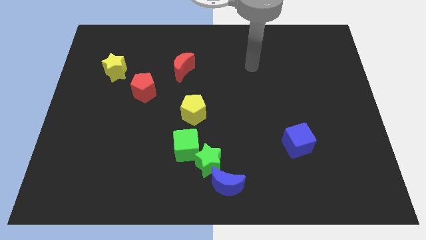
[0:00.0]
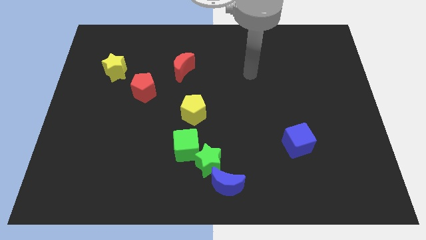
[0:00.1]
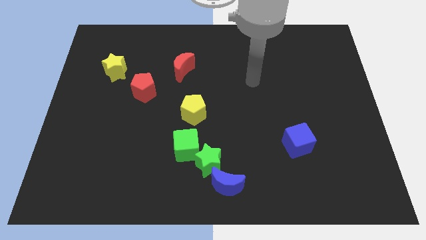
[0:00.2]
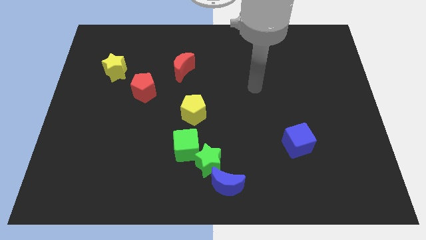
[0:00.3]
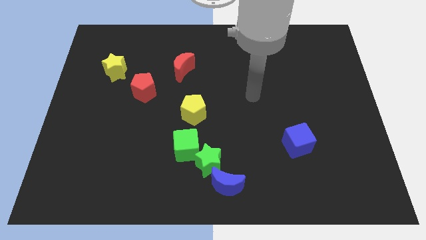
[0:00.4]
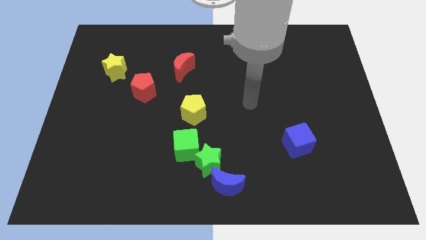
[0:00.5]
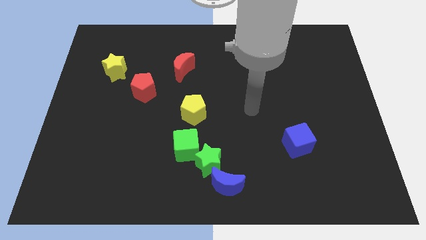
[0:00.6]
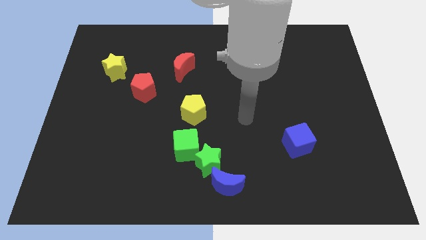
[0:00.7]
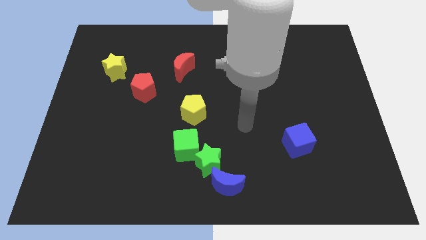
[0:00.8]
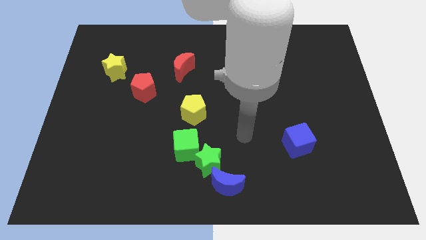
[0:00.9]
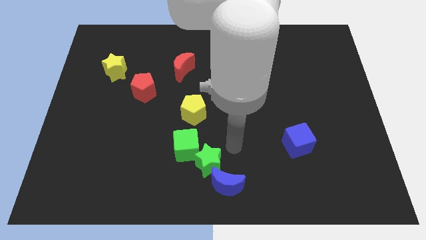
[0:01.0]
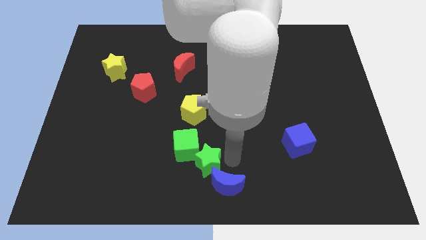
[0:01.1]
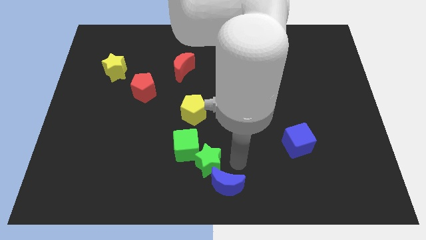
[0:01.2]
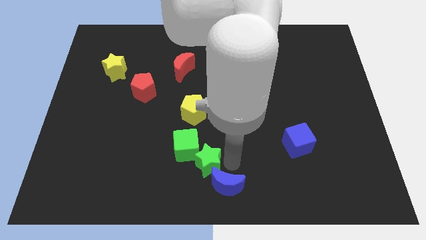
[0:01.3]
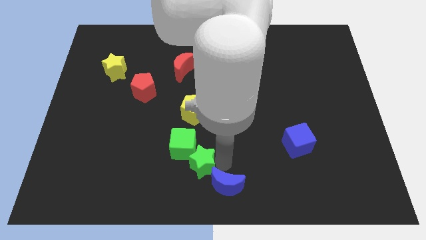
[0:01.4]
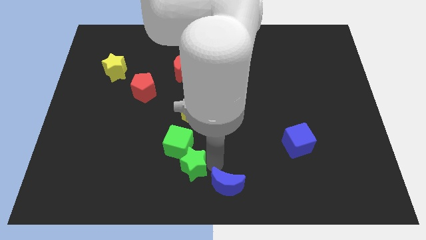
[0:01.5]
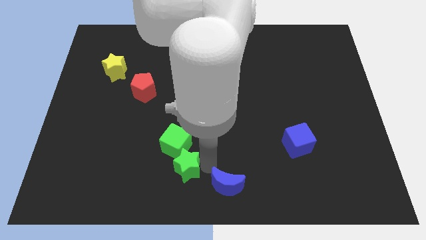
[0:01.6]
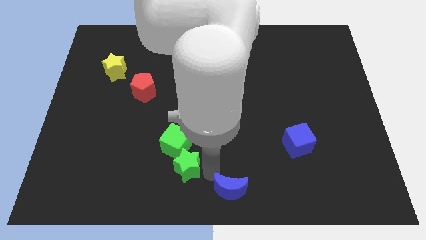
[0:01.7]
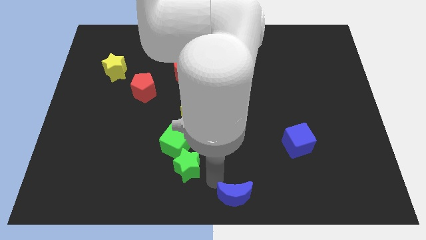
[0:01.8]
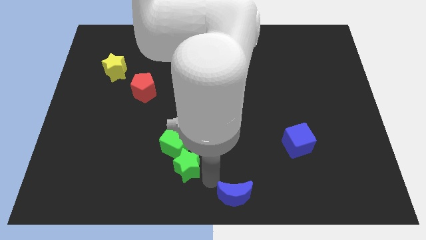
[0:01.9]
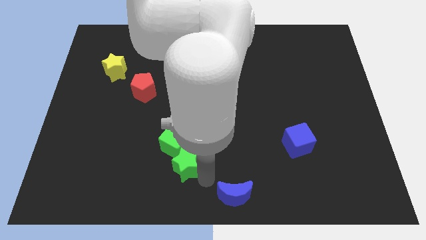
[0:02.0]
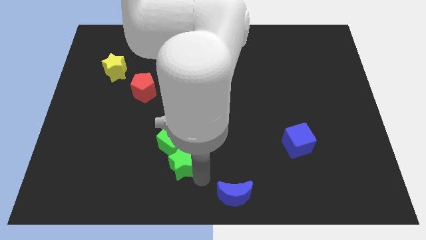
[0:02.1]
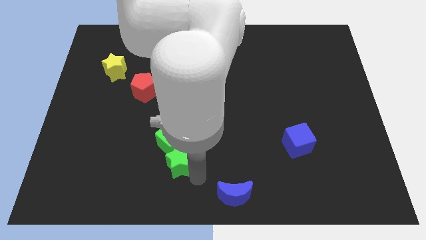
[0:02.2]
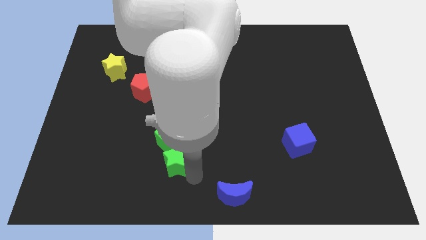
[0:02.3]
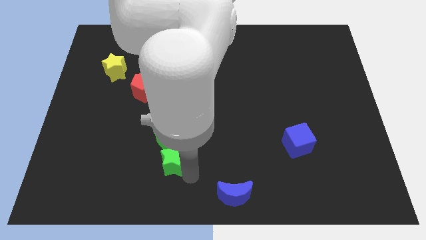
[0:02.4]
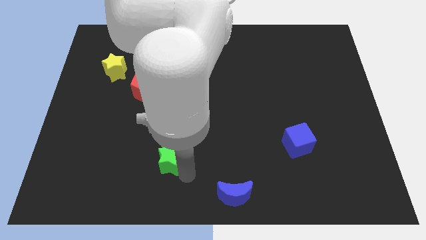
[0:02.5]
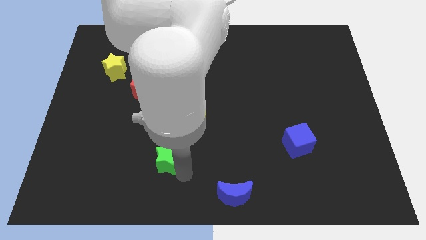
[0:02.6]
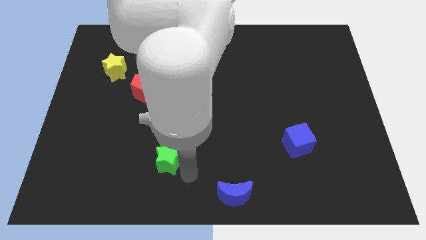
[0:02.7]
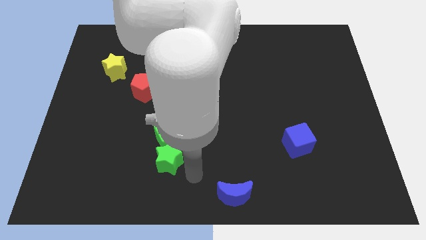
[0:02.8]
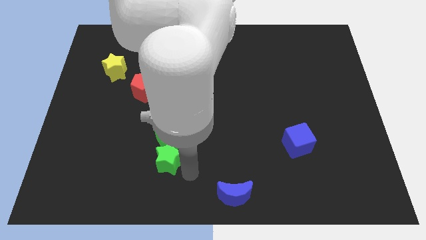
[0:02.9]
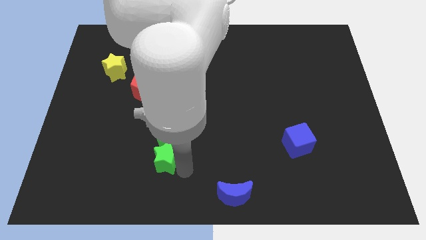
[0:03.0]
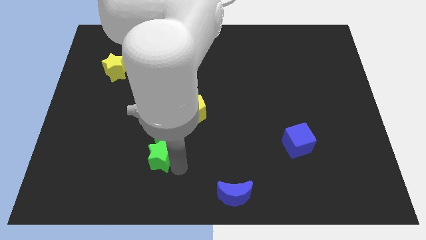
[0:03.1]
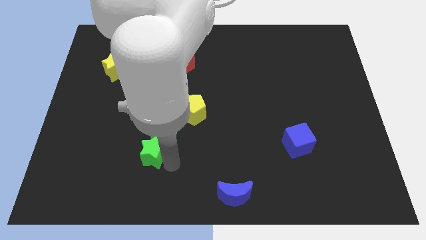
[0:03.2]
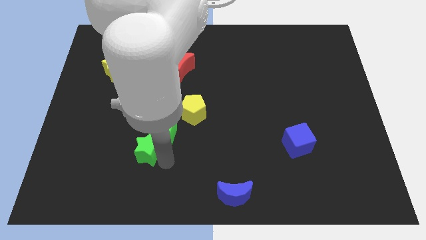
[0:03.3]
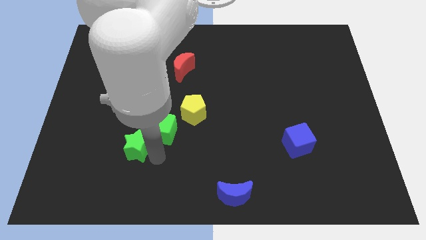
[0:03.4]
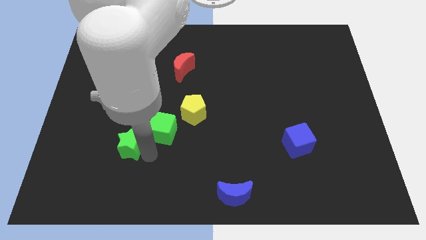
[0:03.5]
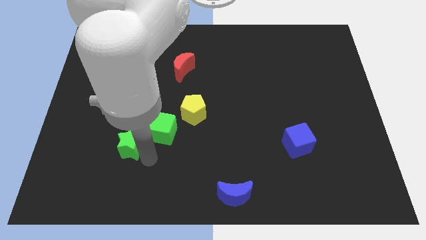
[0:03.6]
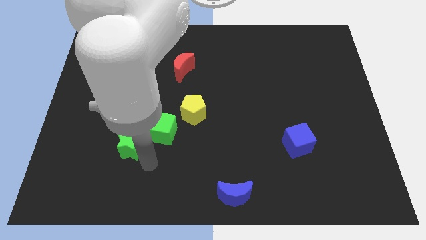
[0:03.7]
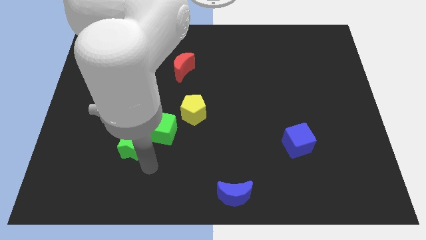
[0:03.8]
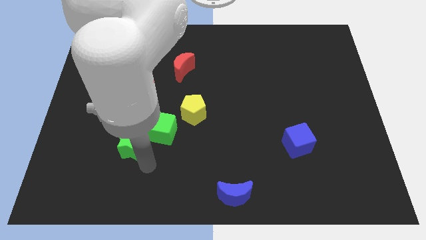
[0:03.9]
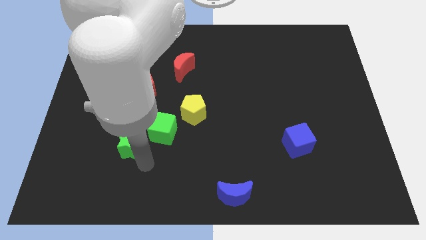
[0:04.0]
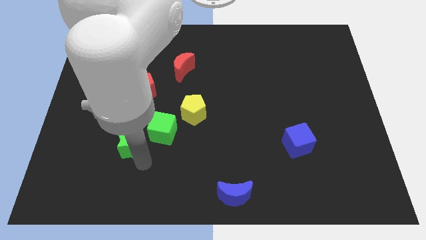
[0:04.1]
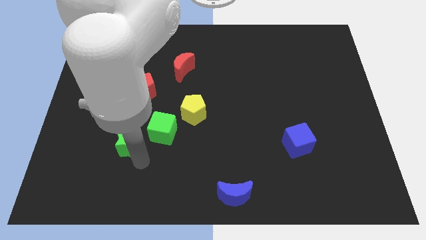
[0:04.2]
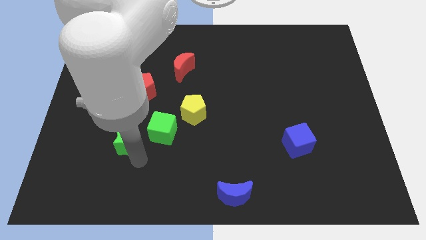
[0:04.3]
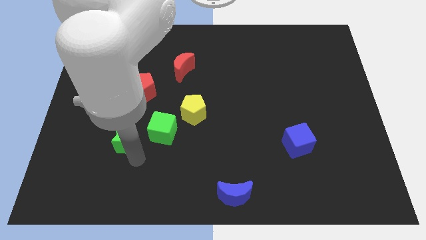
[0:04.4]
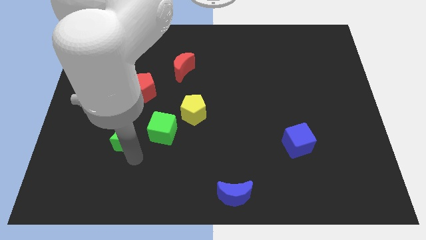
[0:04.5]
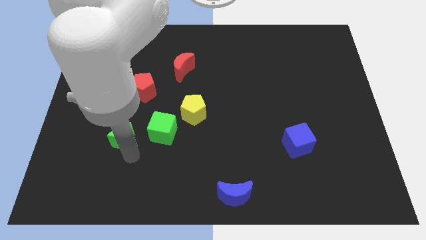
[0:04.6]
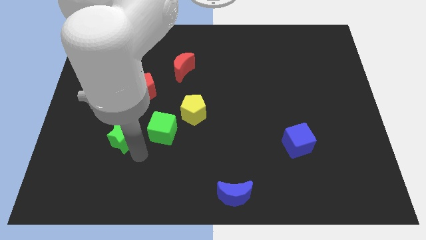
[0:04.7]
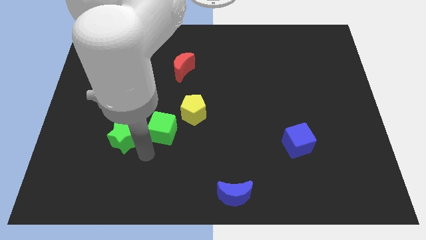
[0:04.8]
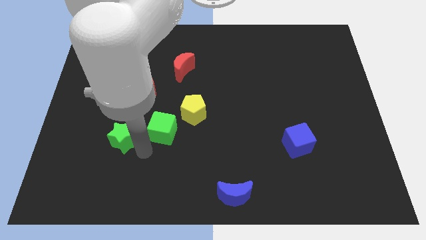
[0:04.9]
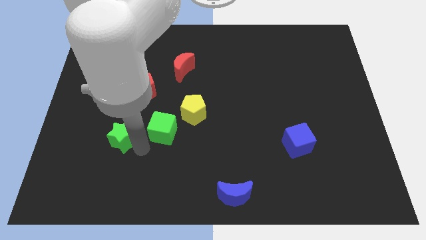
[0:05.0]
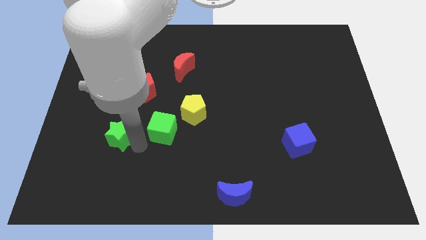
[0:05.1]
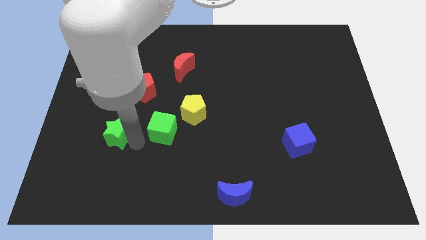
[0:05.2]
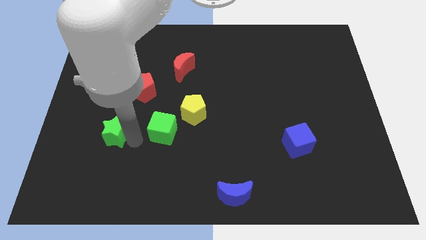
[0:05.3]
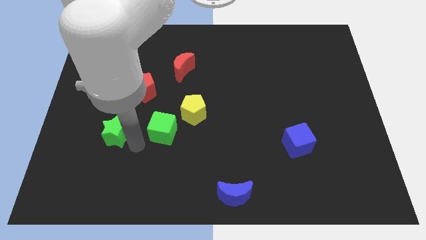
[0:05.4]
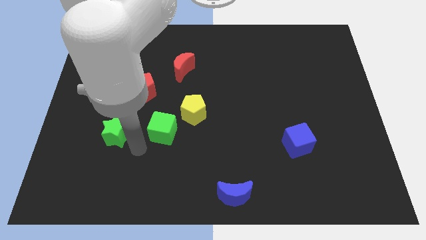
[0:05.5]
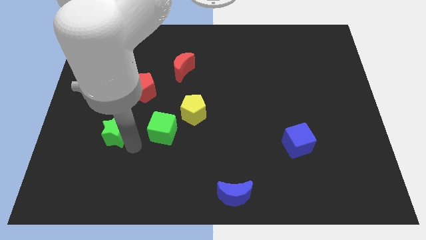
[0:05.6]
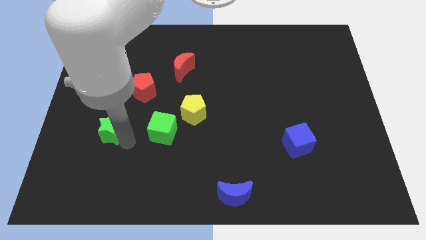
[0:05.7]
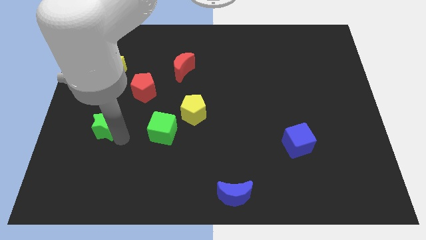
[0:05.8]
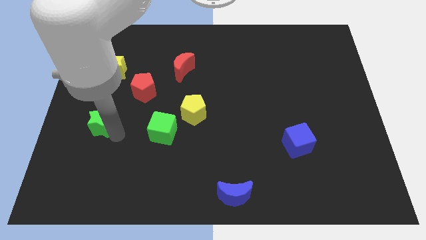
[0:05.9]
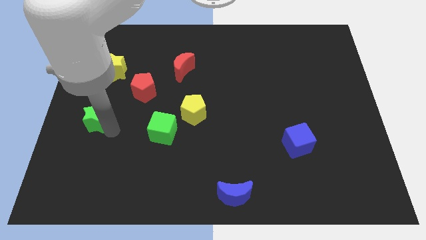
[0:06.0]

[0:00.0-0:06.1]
push the green star to the left side of the board

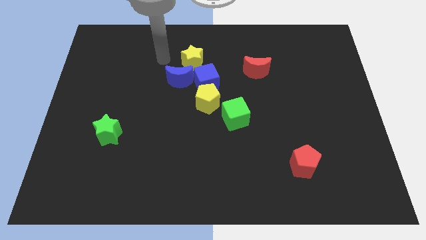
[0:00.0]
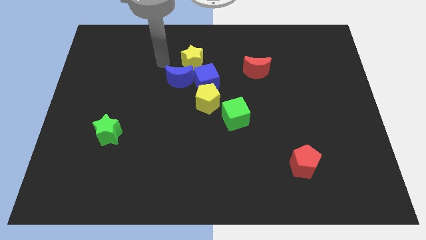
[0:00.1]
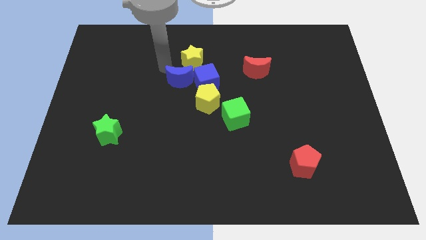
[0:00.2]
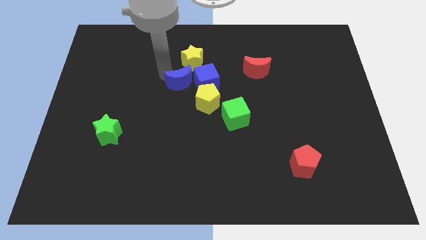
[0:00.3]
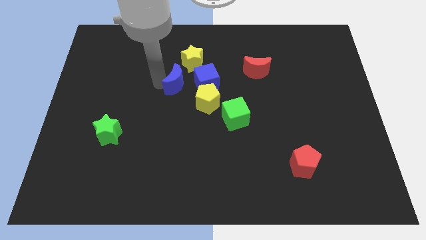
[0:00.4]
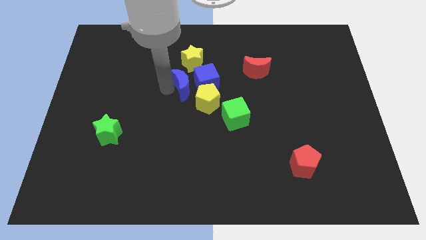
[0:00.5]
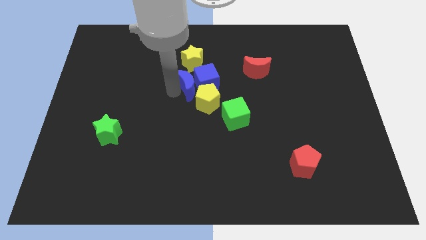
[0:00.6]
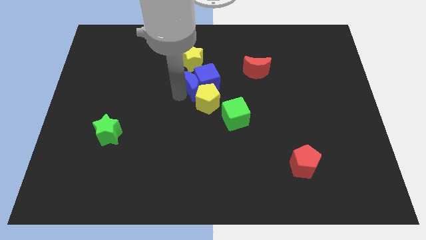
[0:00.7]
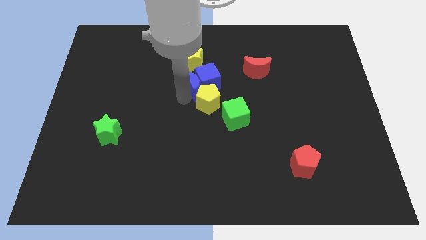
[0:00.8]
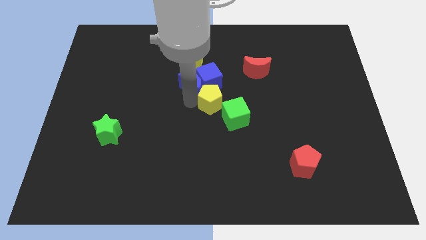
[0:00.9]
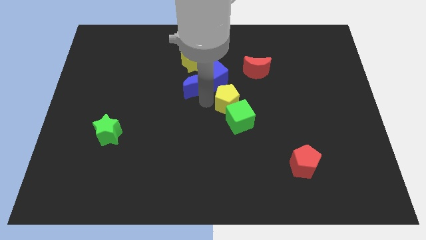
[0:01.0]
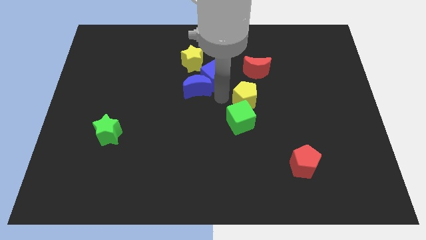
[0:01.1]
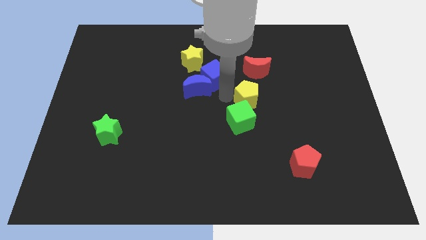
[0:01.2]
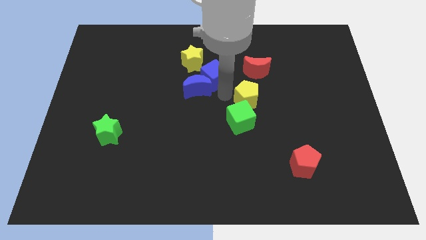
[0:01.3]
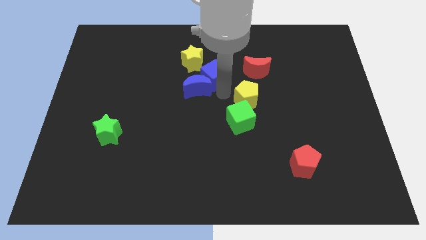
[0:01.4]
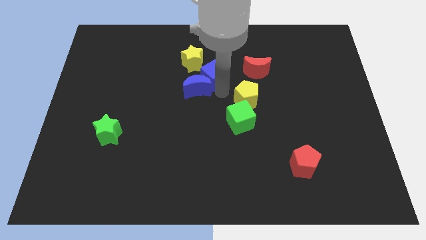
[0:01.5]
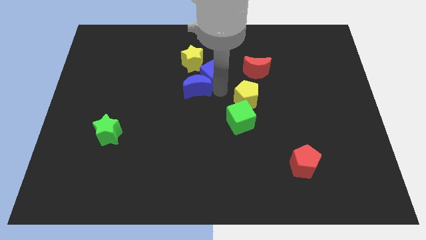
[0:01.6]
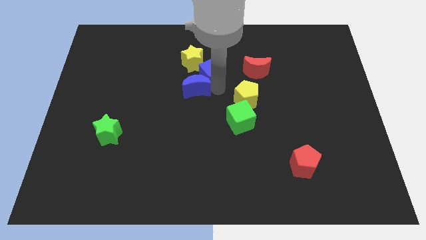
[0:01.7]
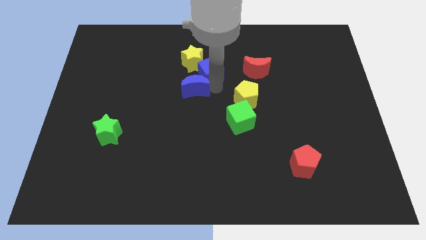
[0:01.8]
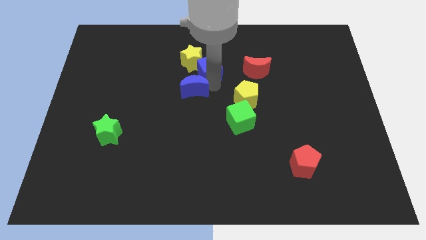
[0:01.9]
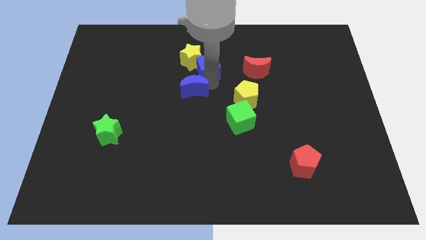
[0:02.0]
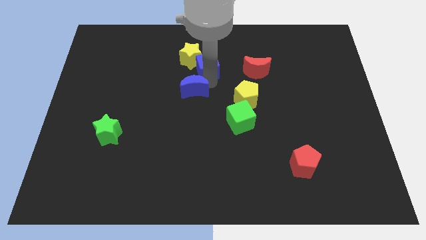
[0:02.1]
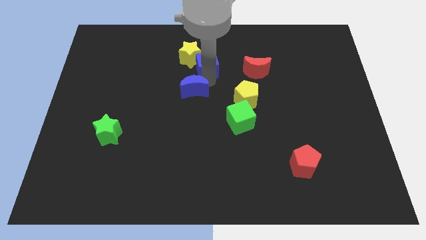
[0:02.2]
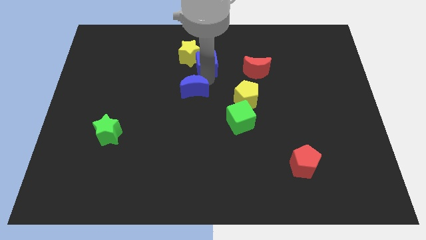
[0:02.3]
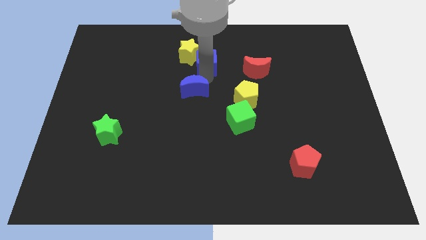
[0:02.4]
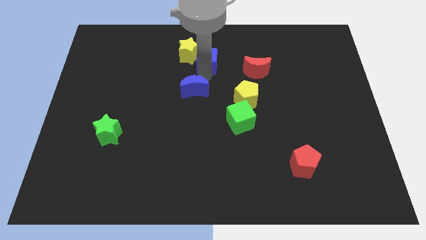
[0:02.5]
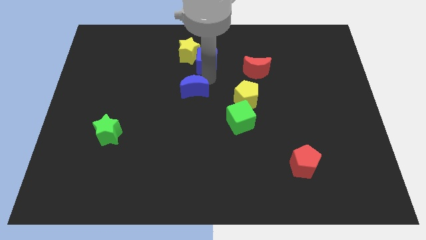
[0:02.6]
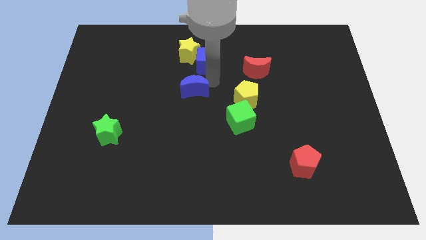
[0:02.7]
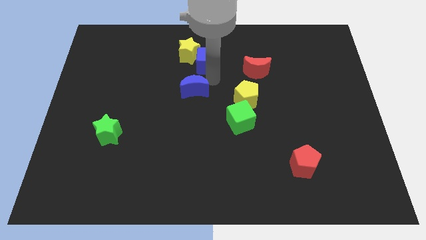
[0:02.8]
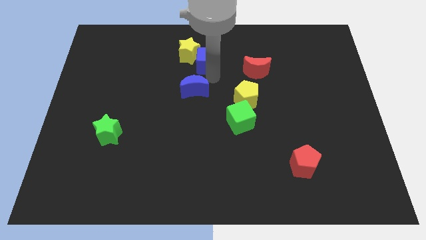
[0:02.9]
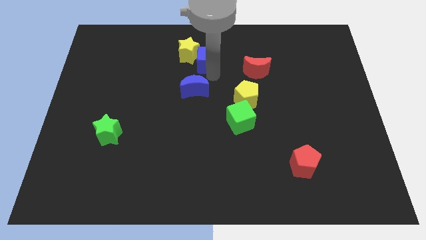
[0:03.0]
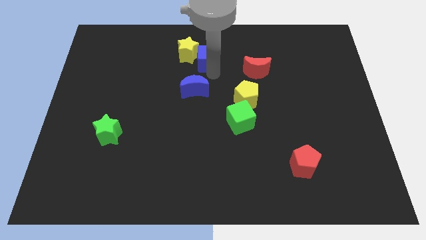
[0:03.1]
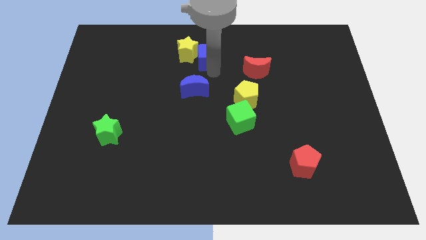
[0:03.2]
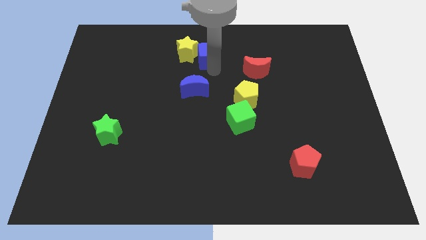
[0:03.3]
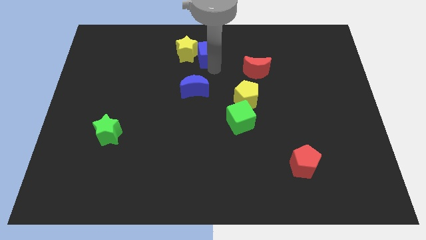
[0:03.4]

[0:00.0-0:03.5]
push the blue cube to the top side
